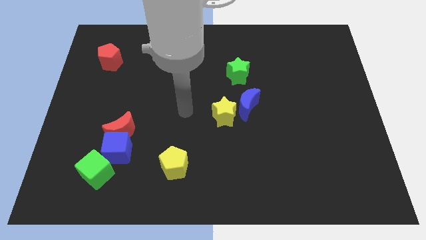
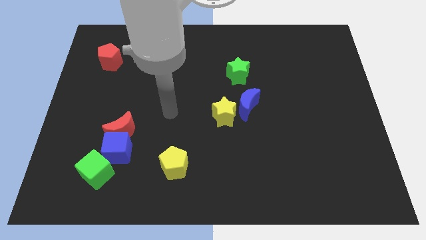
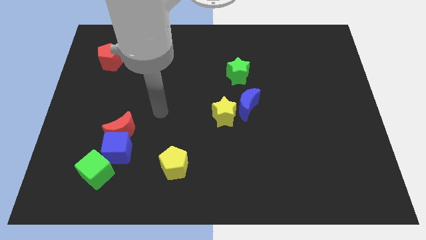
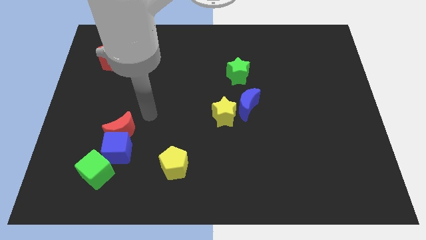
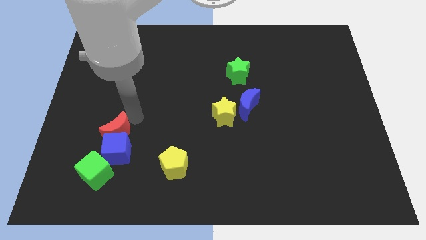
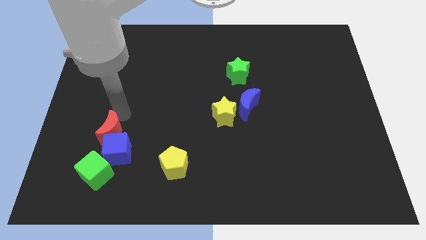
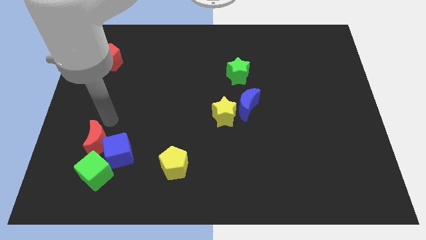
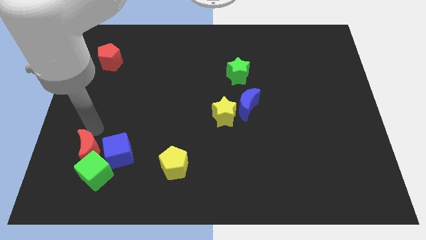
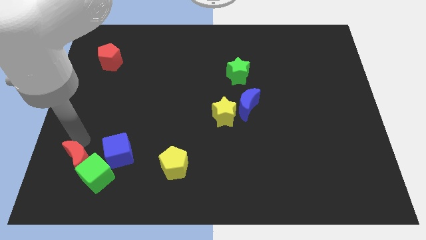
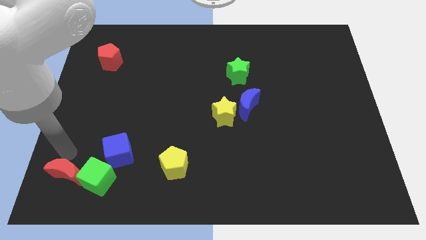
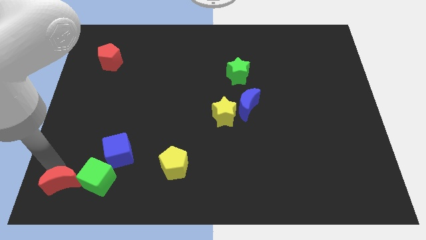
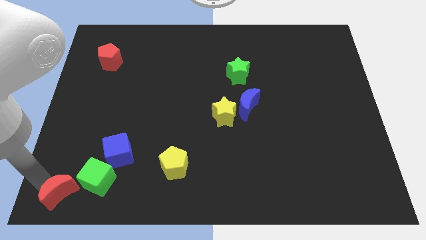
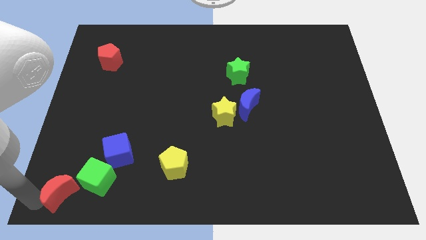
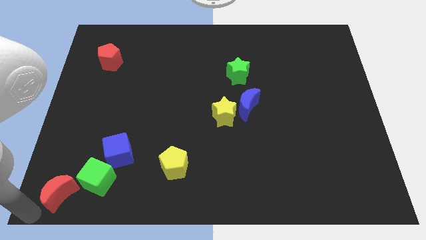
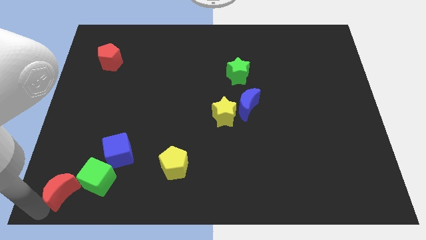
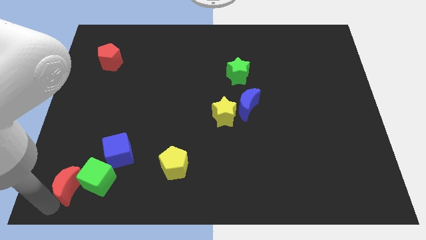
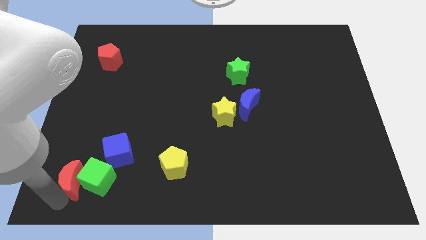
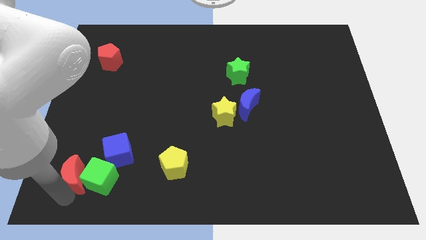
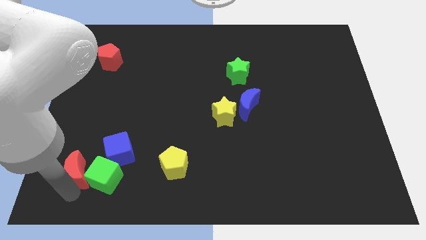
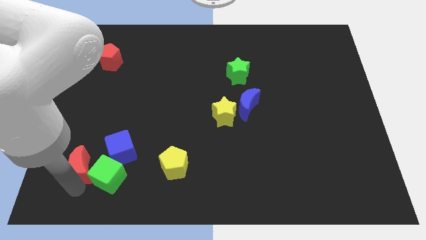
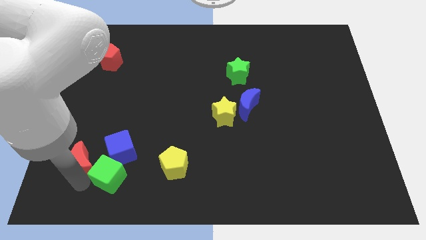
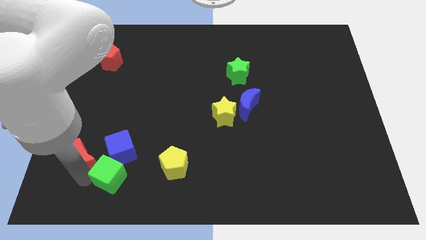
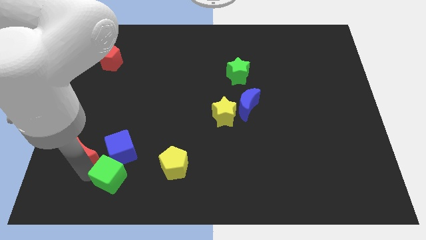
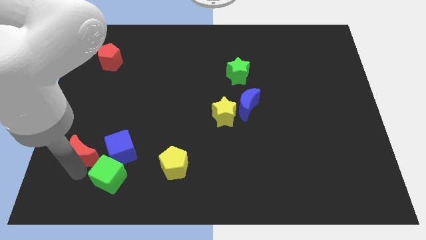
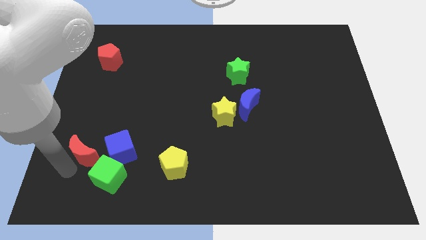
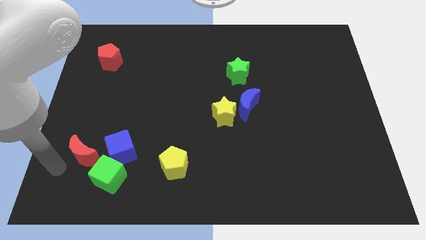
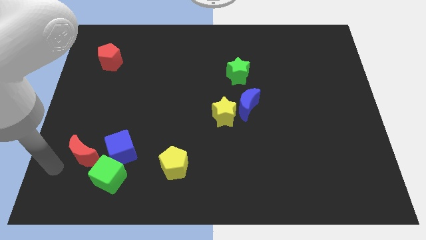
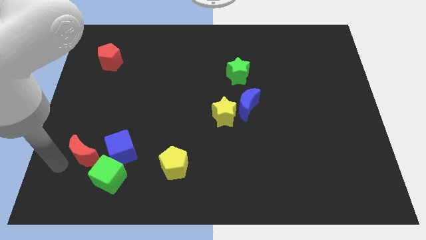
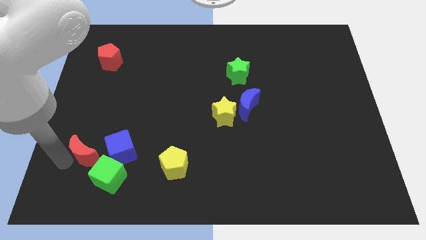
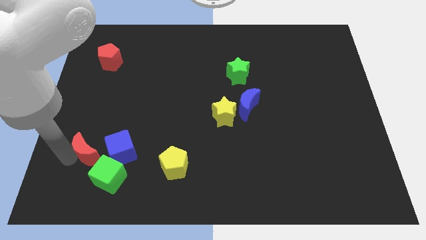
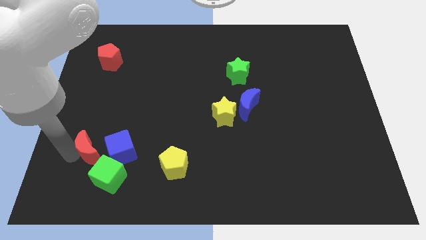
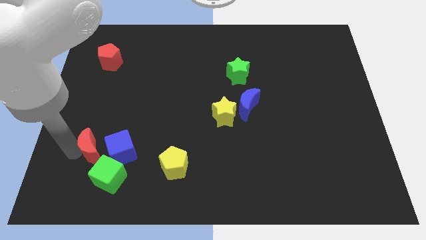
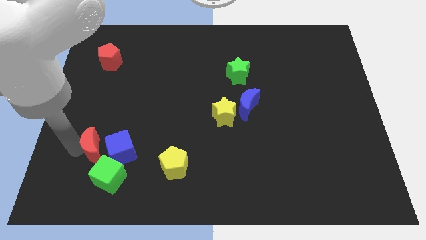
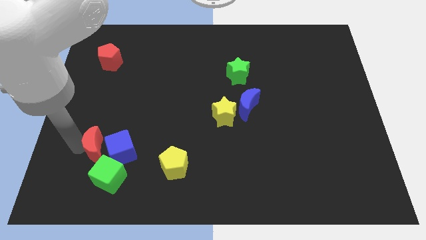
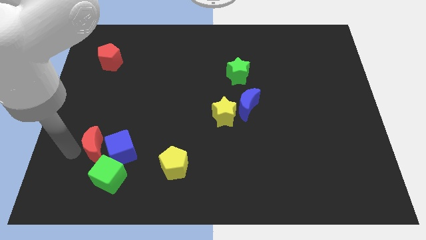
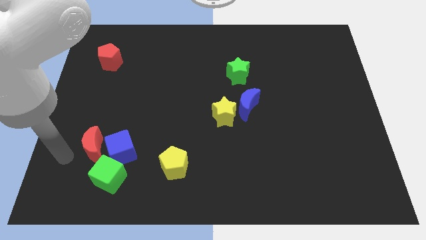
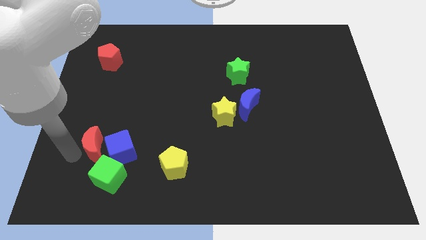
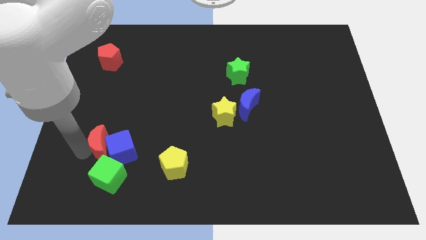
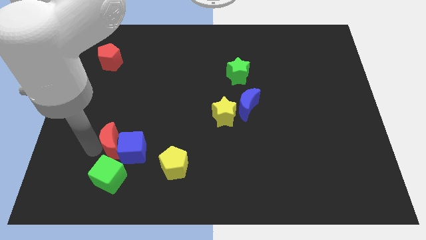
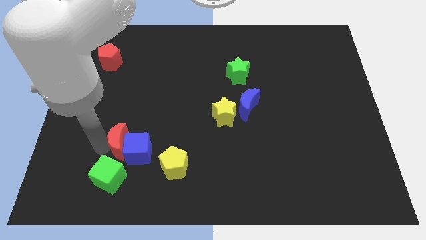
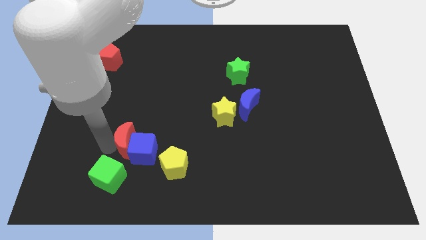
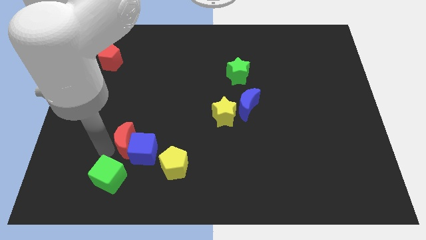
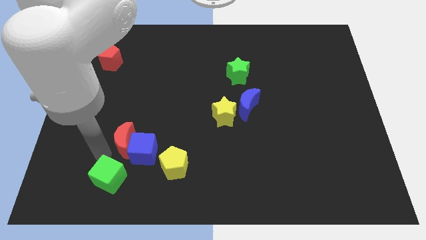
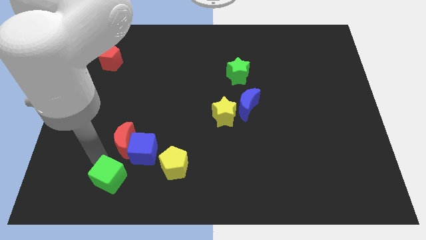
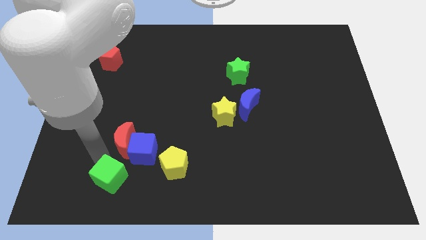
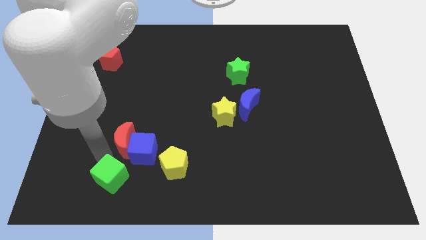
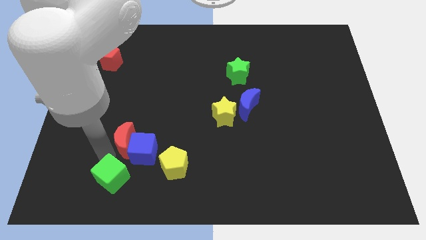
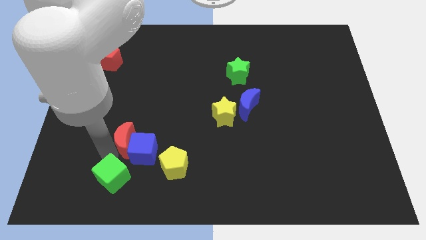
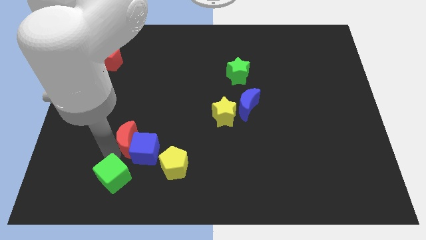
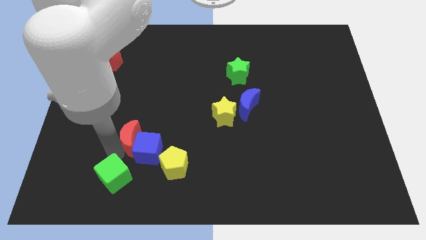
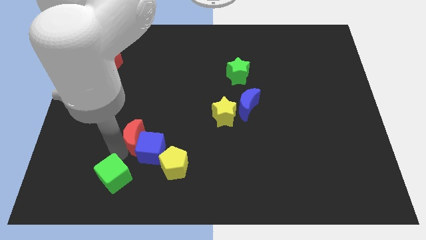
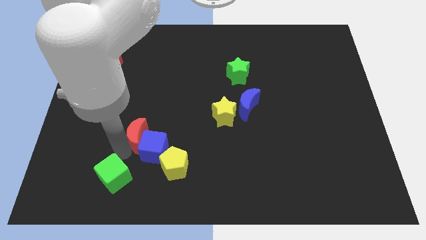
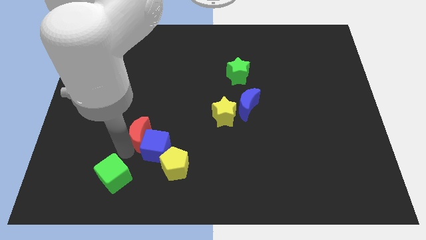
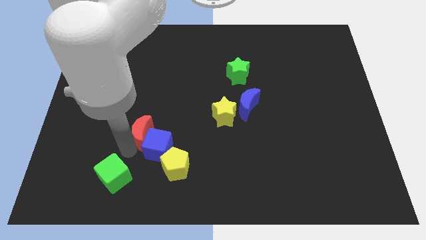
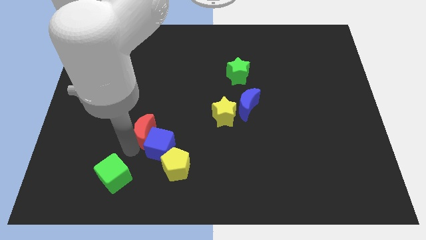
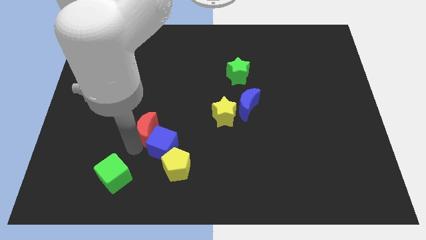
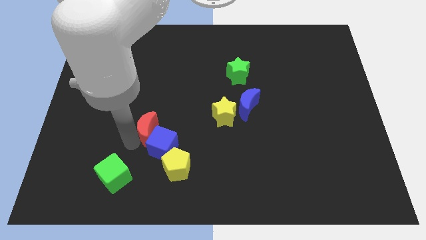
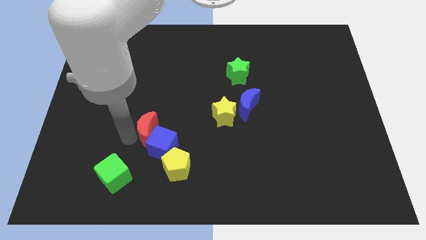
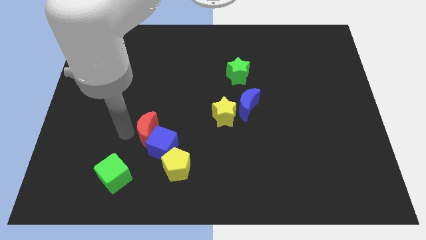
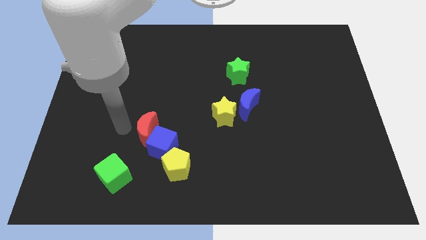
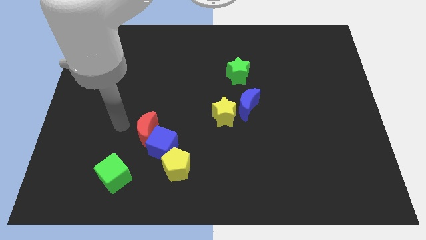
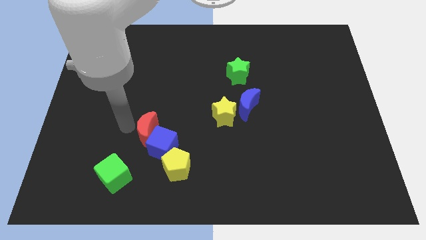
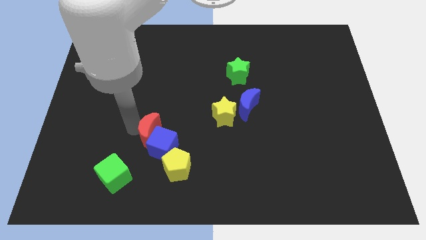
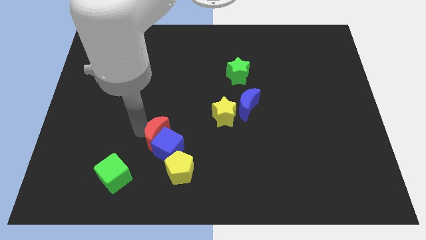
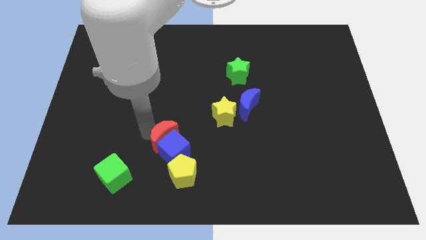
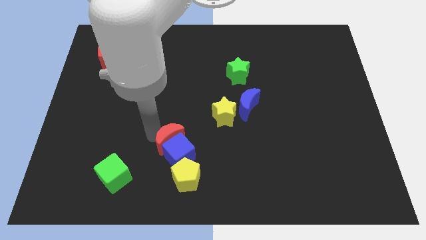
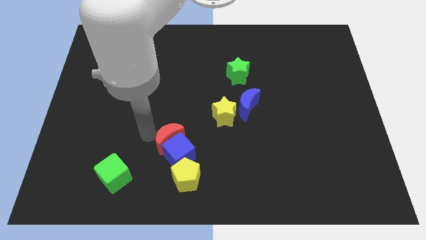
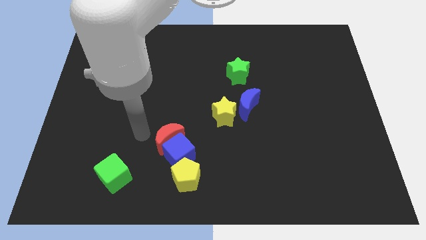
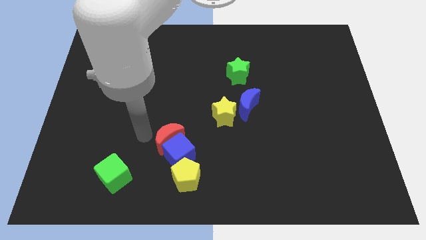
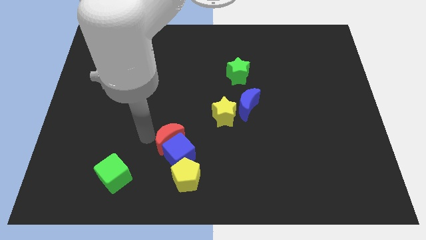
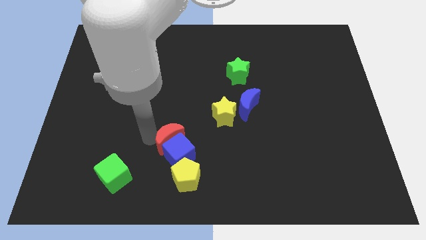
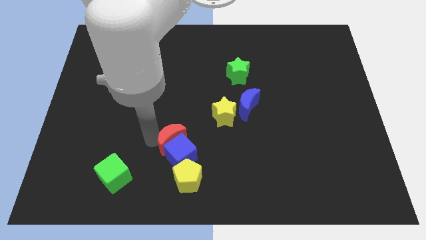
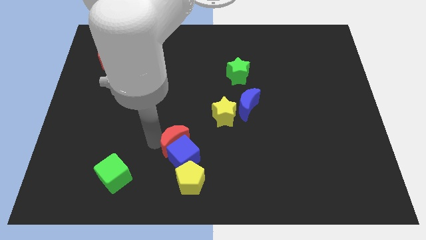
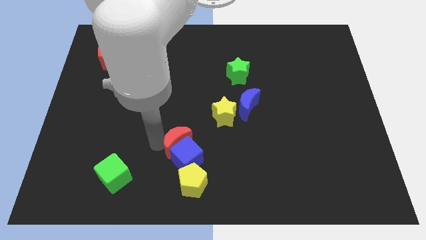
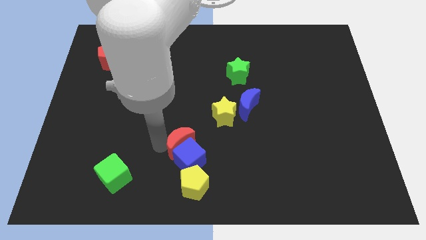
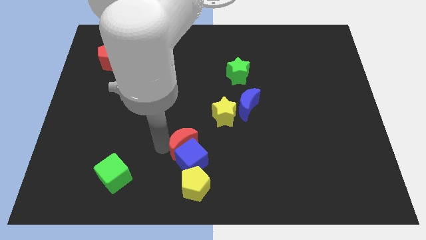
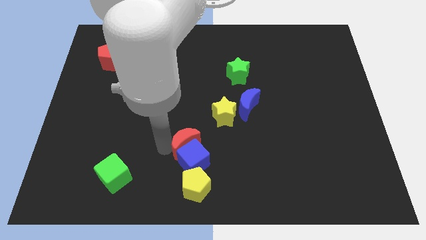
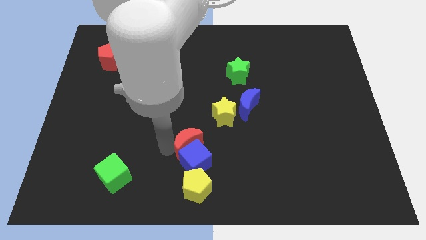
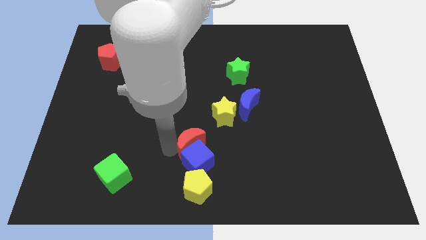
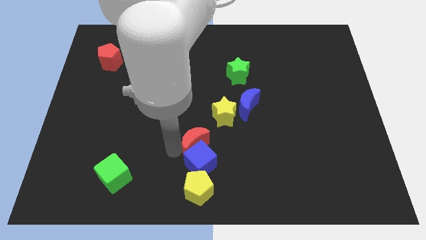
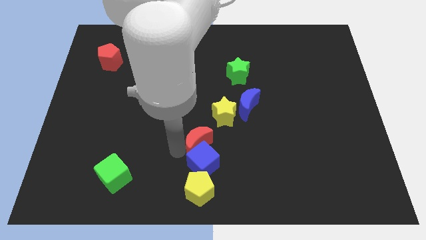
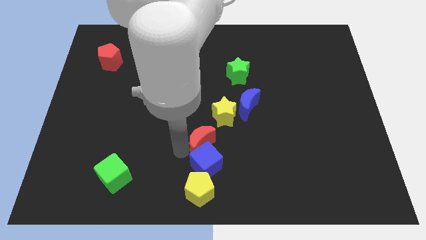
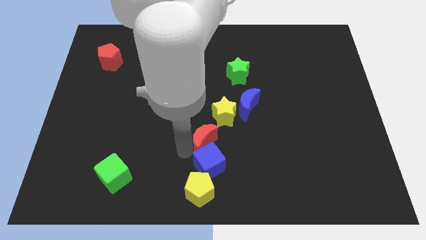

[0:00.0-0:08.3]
push the red moon to the bottom of the yellow star

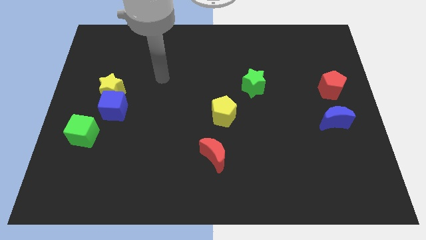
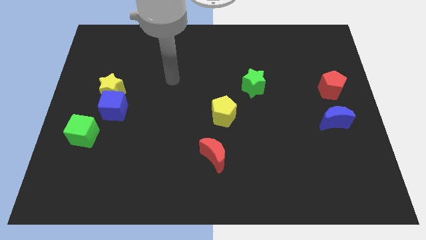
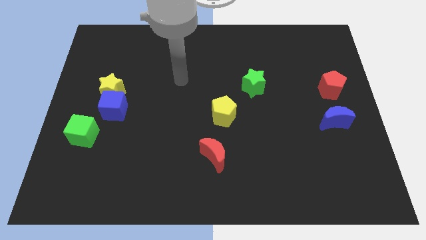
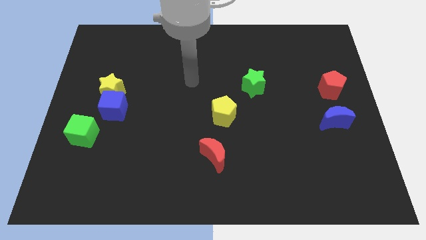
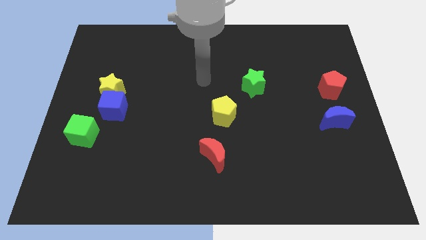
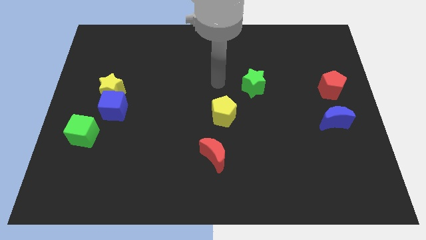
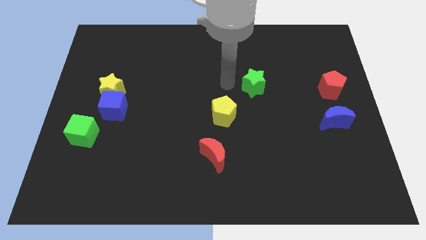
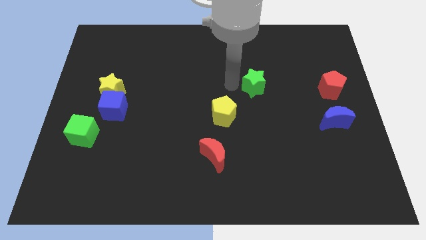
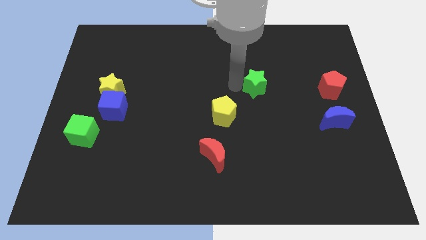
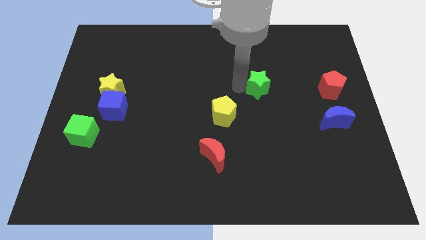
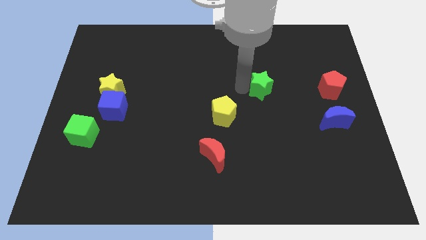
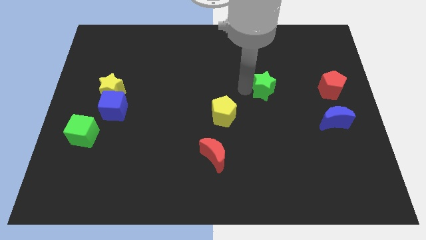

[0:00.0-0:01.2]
put the green star left of the red pentagon
